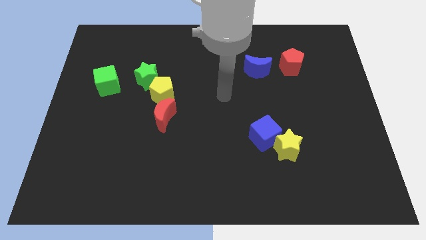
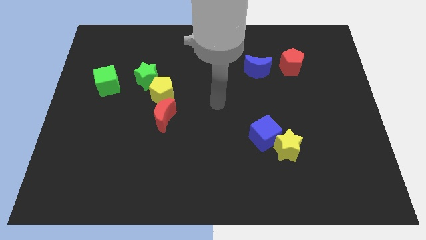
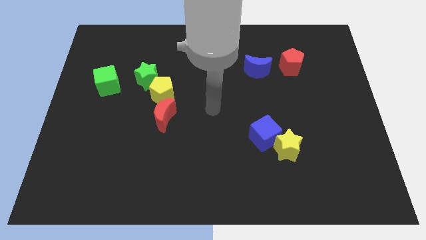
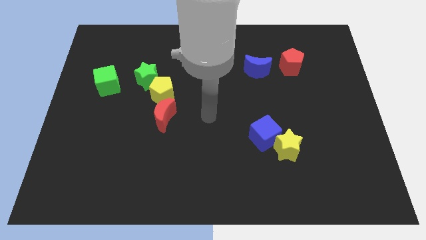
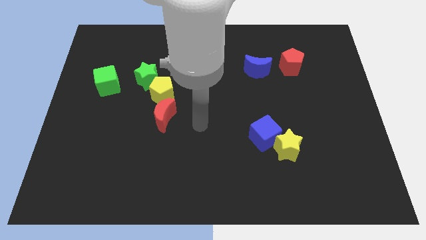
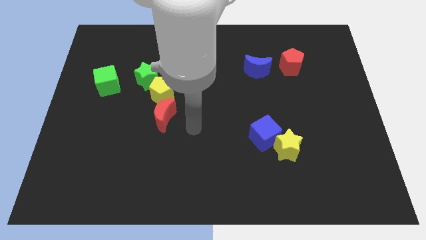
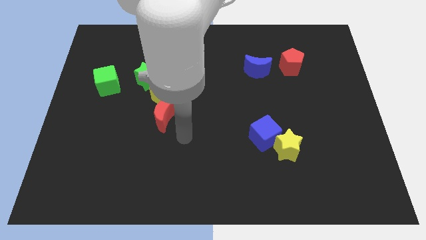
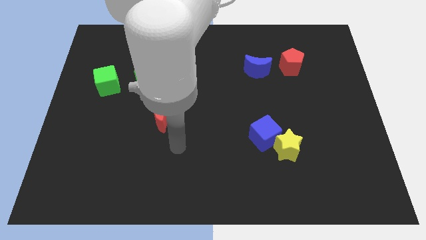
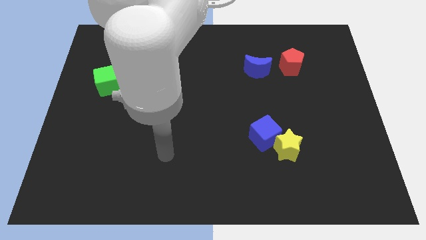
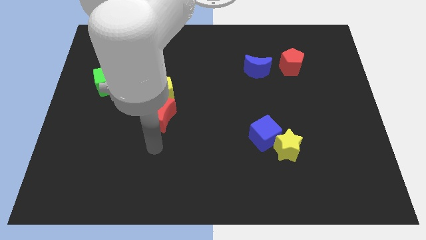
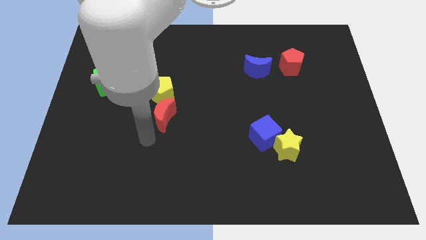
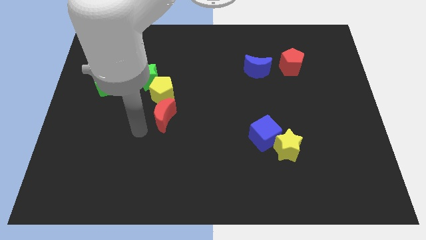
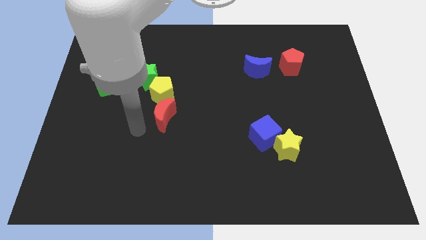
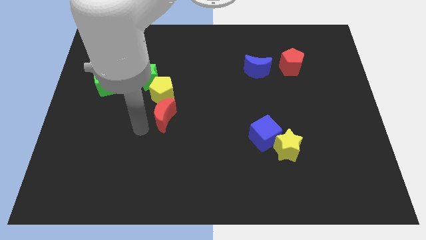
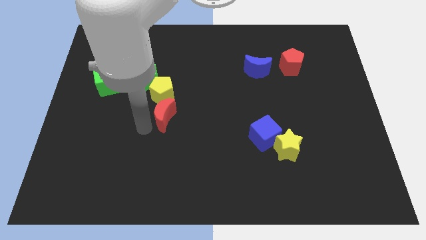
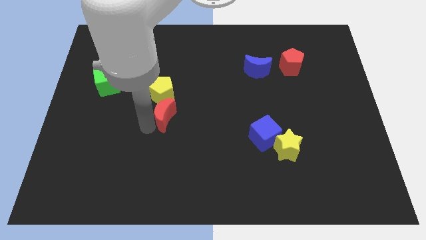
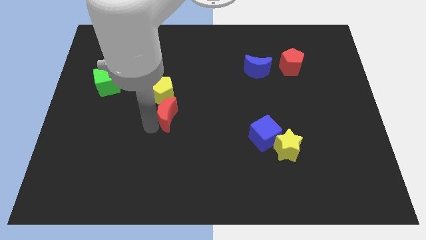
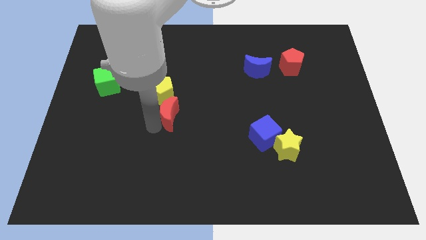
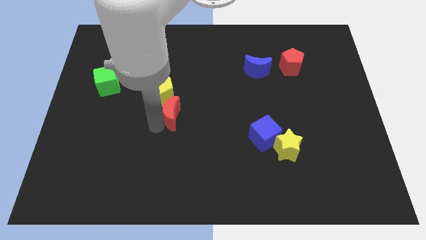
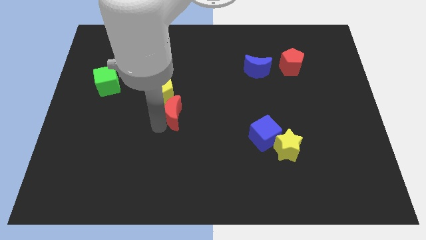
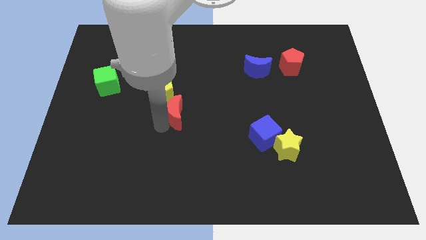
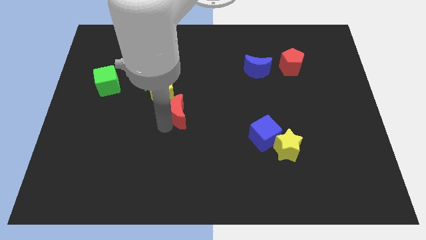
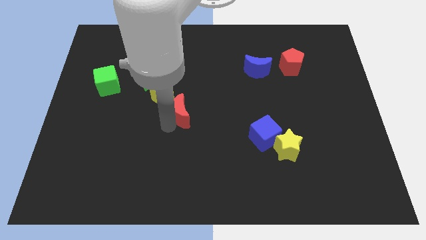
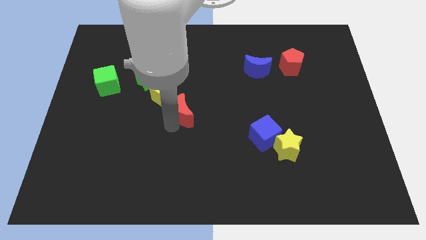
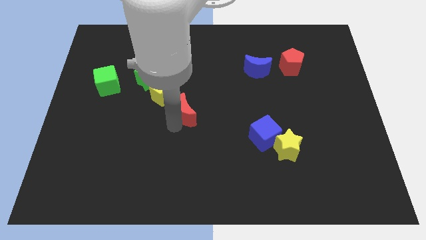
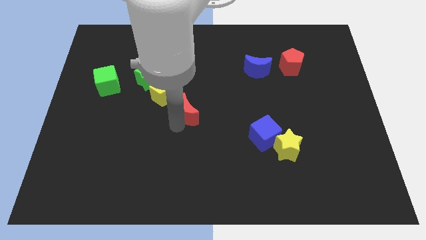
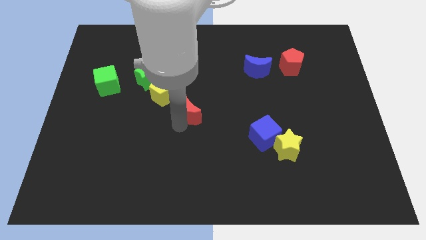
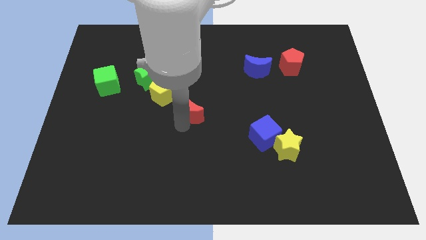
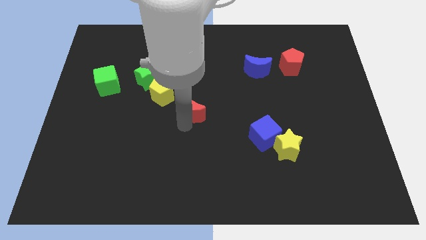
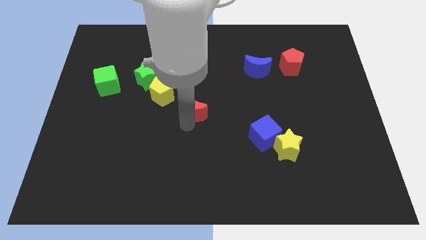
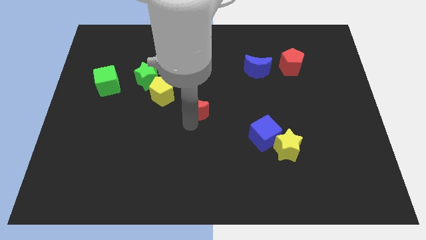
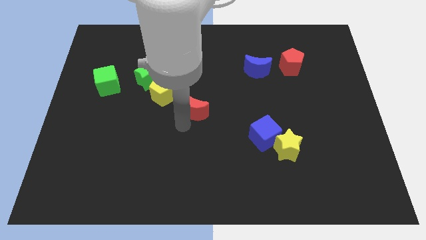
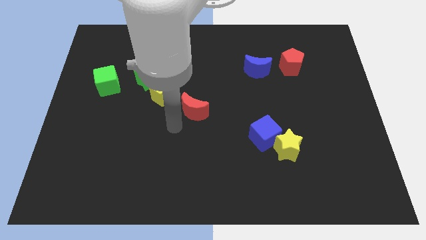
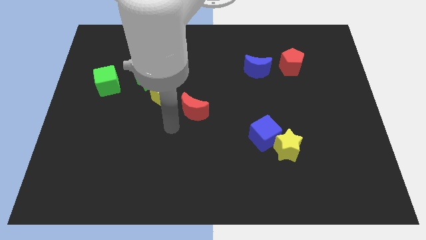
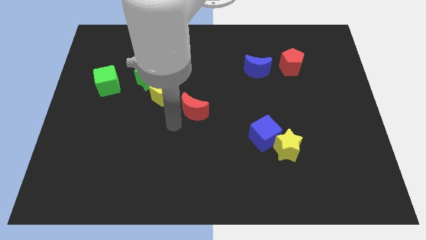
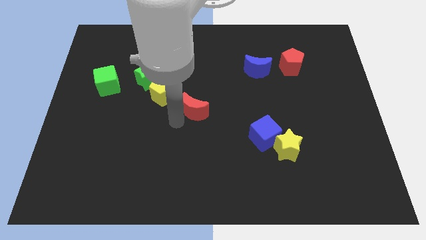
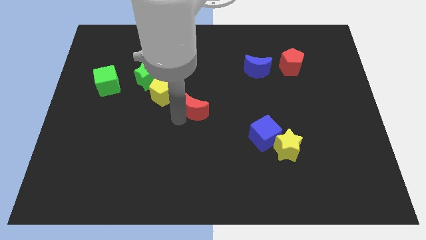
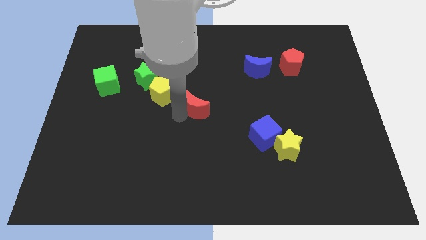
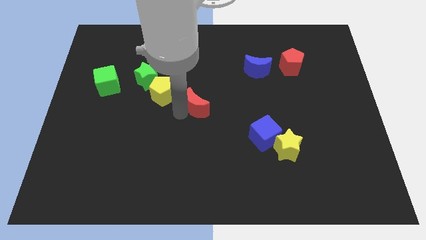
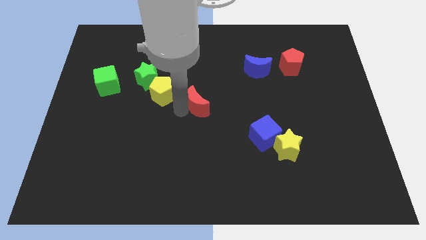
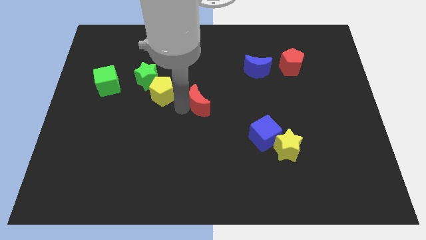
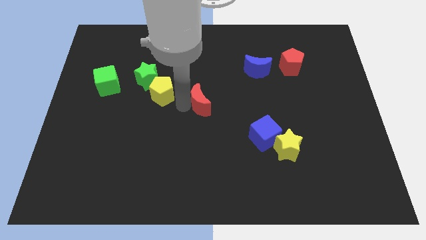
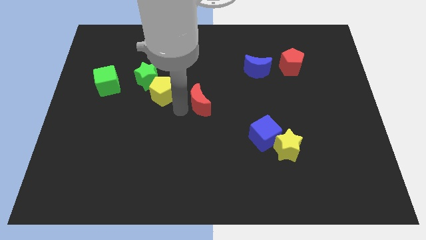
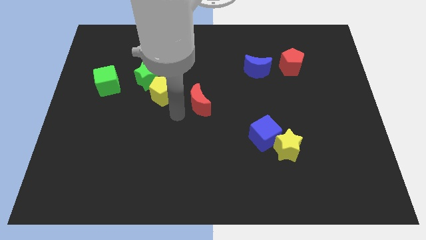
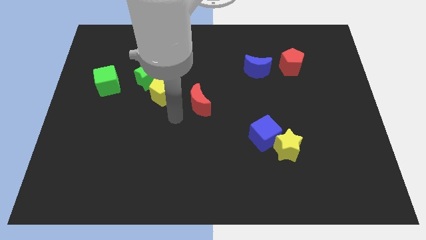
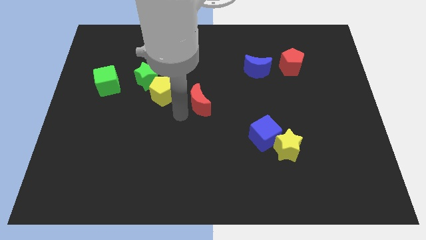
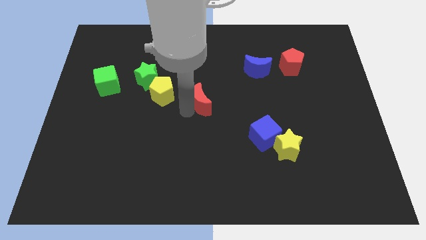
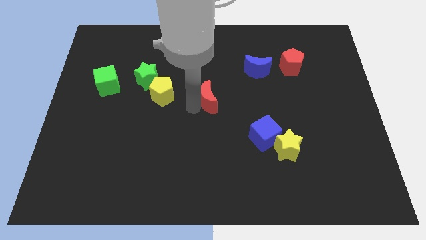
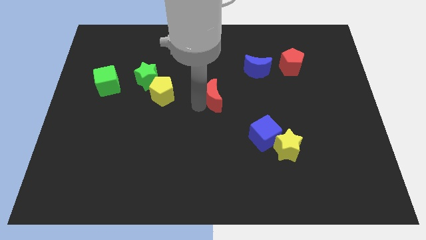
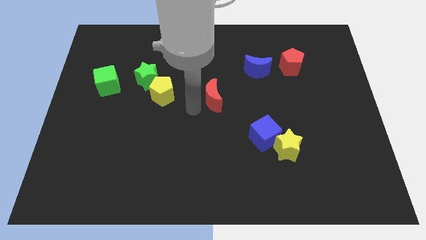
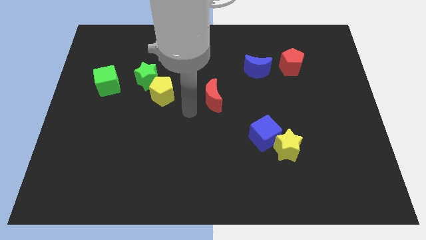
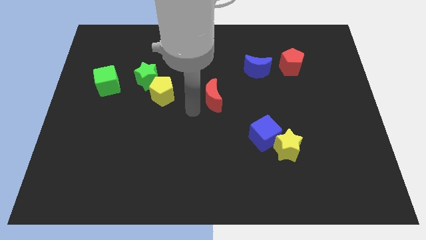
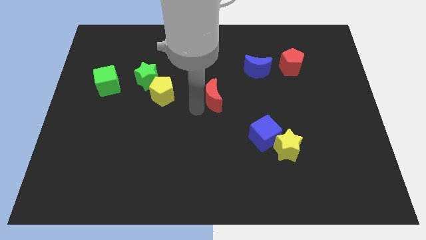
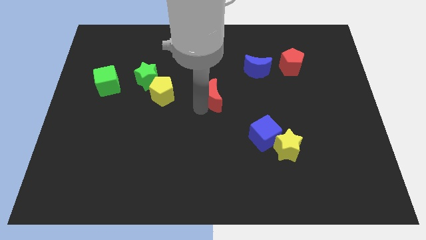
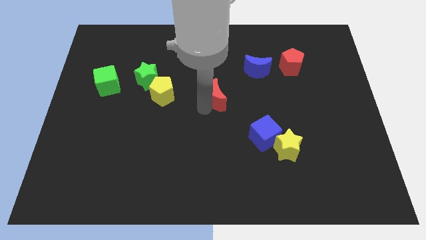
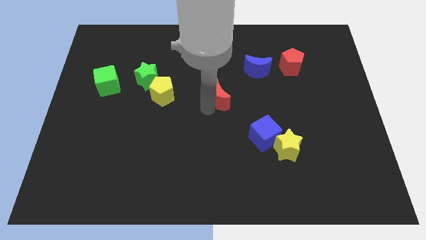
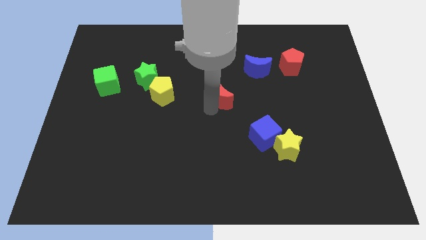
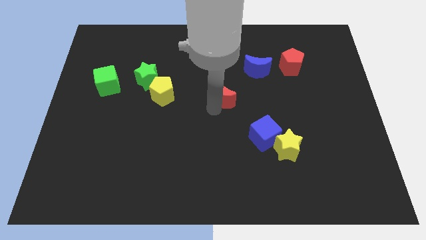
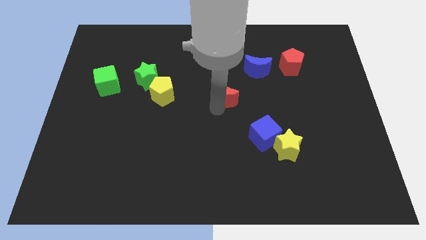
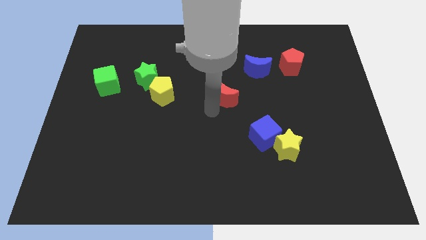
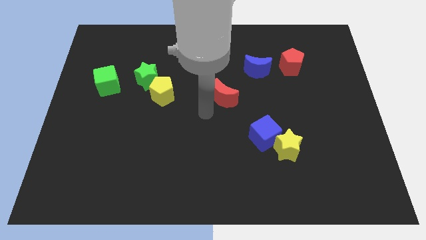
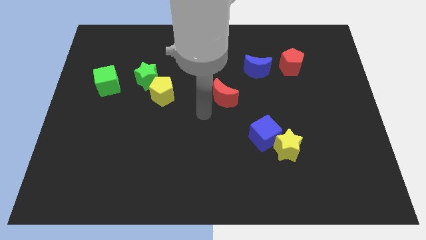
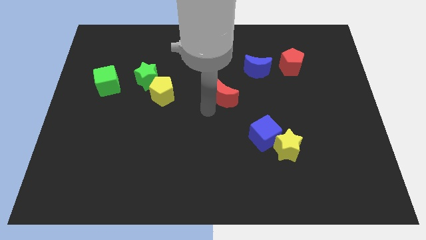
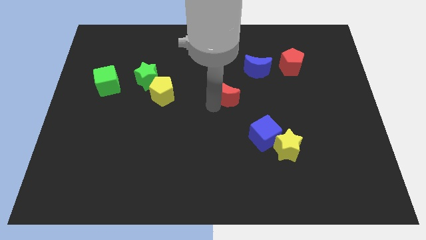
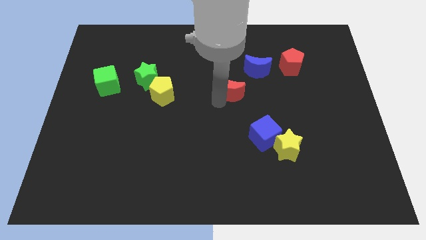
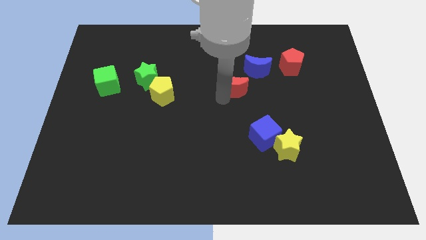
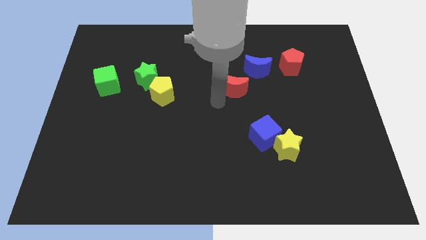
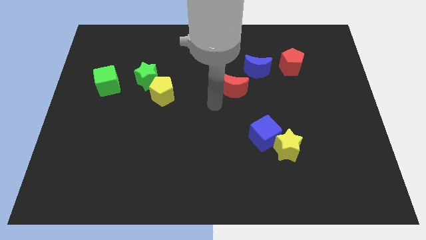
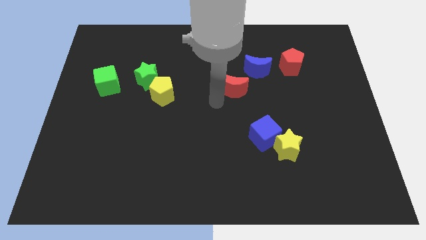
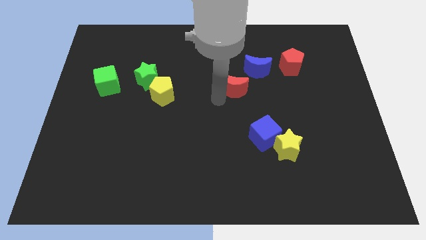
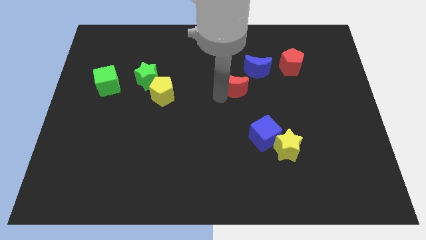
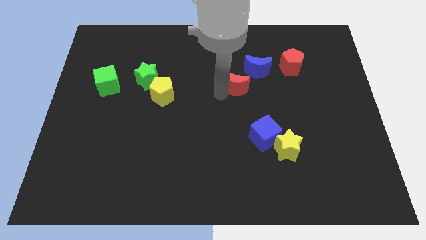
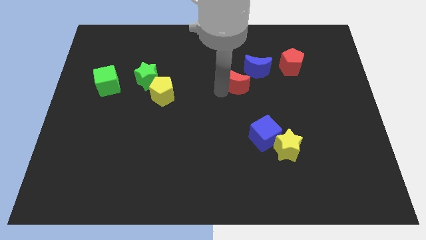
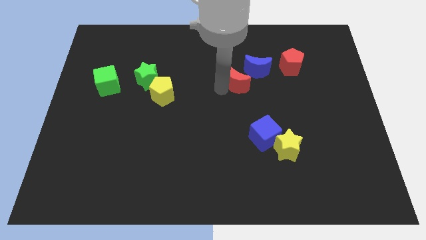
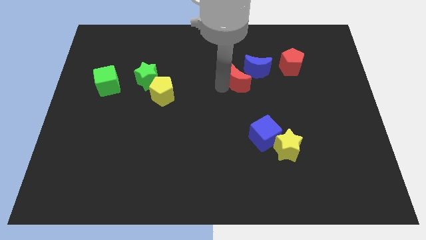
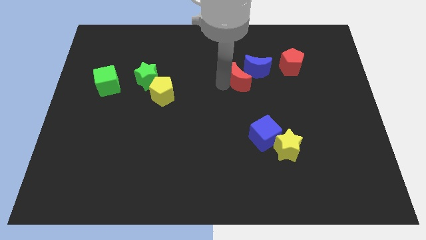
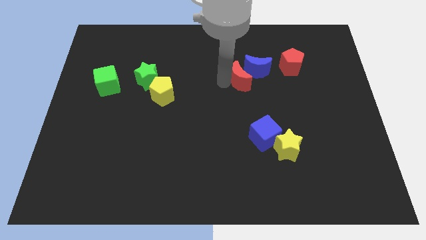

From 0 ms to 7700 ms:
move the red moon close to the blue moon
